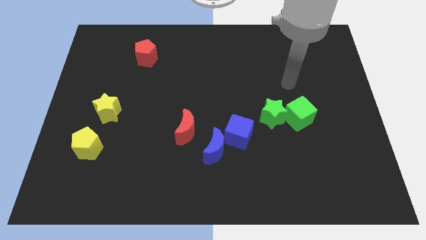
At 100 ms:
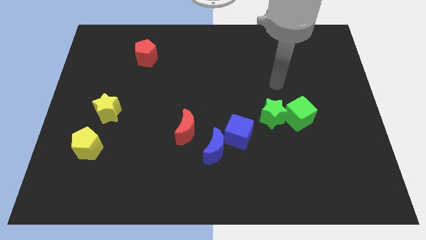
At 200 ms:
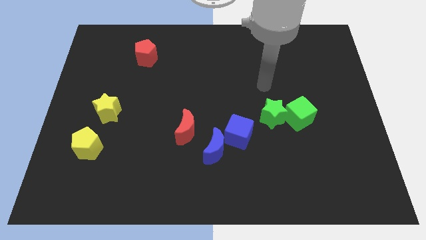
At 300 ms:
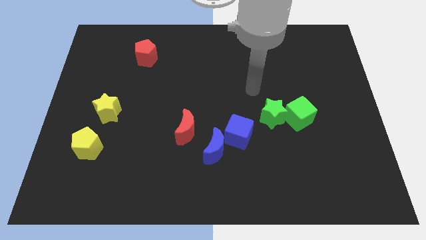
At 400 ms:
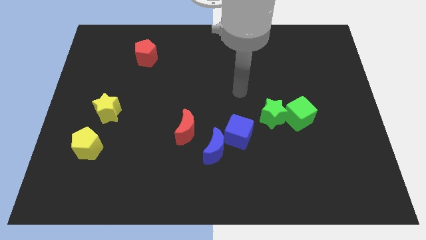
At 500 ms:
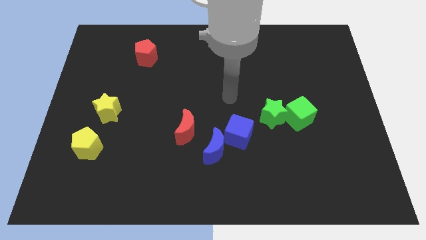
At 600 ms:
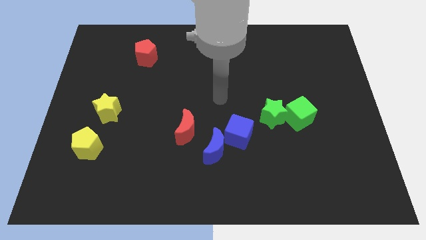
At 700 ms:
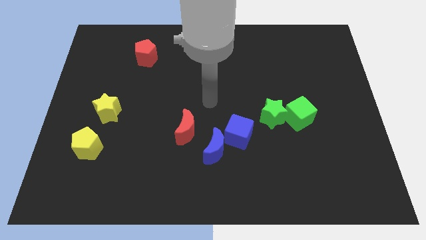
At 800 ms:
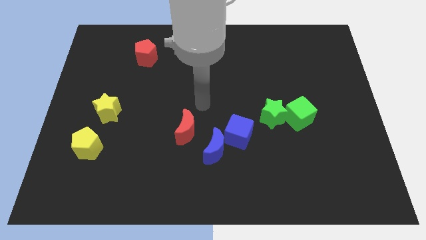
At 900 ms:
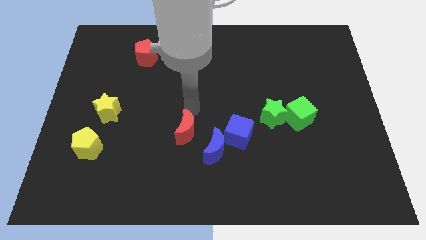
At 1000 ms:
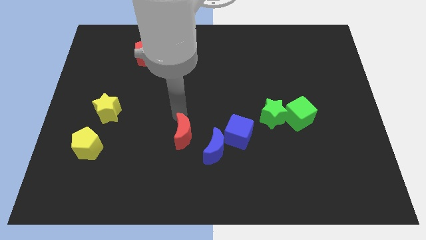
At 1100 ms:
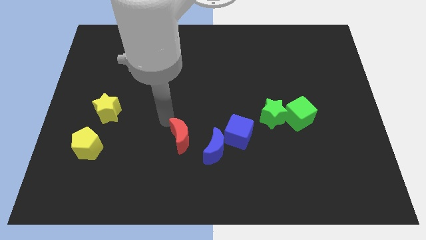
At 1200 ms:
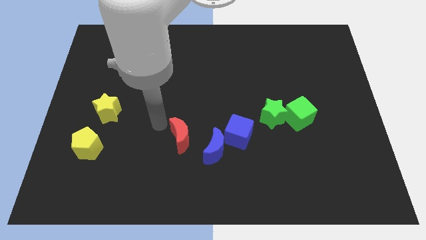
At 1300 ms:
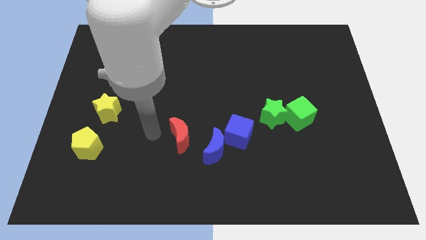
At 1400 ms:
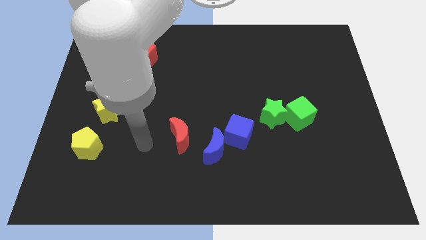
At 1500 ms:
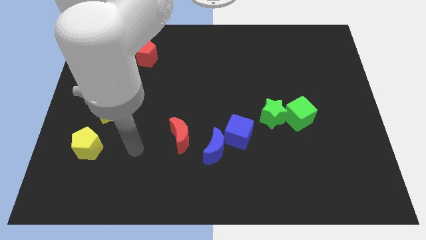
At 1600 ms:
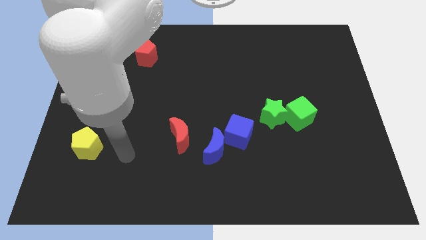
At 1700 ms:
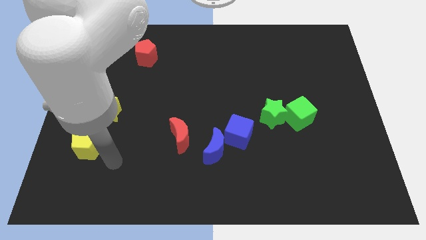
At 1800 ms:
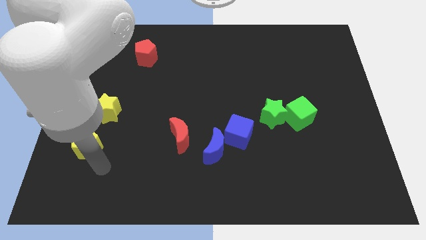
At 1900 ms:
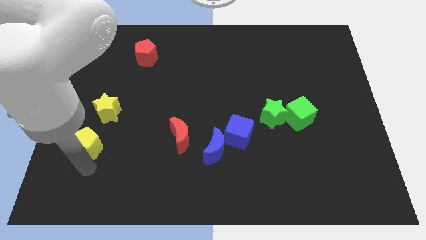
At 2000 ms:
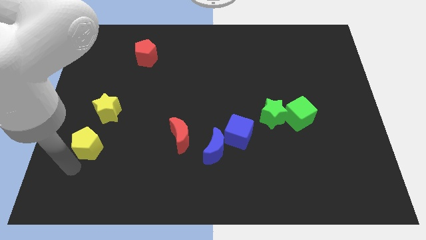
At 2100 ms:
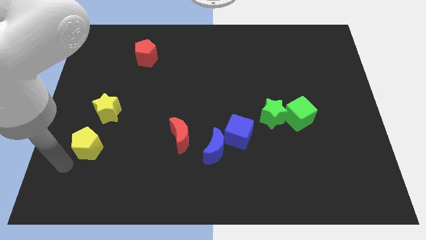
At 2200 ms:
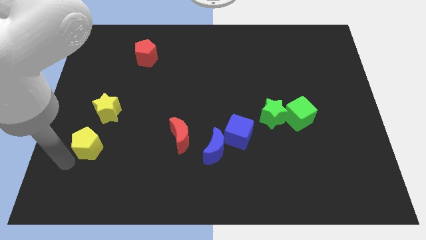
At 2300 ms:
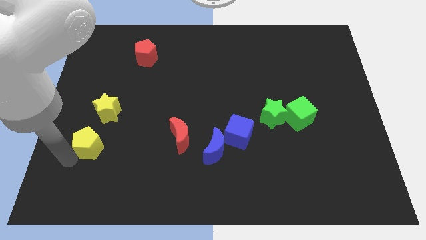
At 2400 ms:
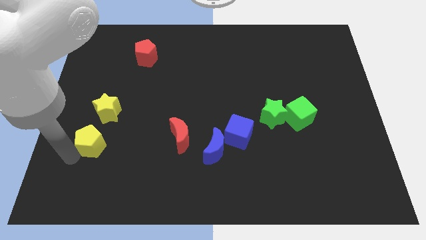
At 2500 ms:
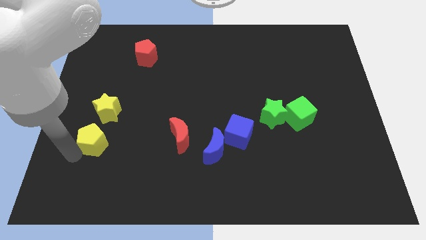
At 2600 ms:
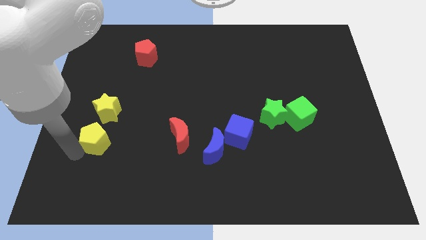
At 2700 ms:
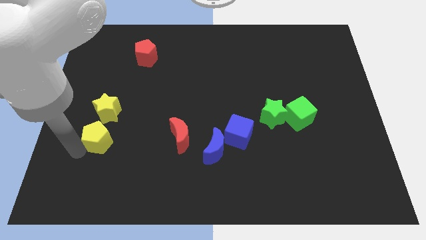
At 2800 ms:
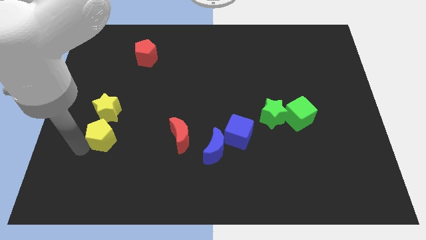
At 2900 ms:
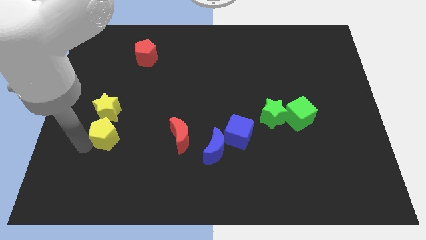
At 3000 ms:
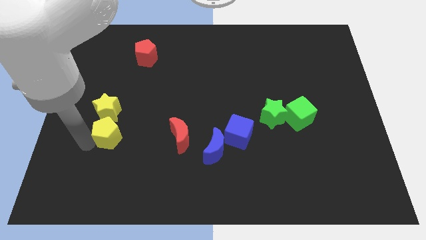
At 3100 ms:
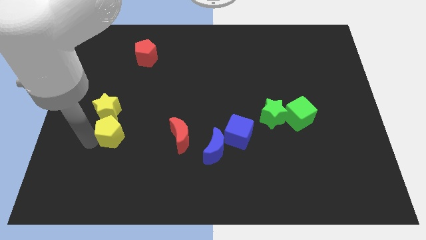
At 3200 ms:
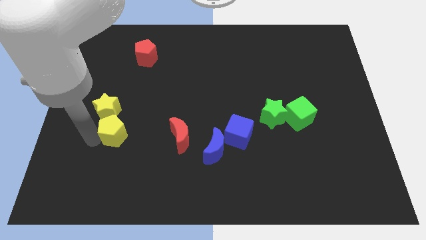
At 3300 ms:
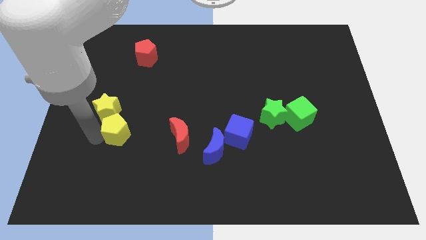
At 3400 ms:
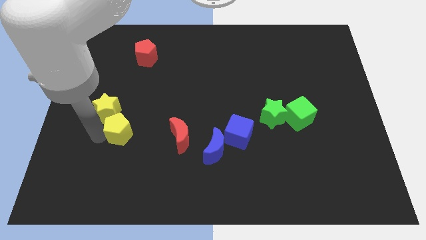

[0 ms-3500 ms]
slightly move the yellow pentagon up and then right

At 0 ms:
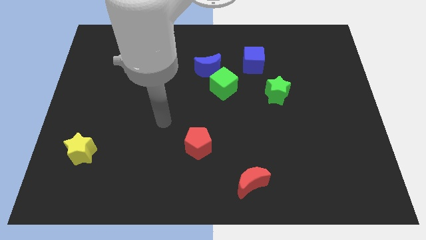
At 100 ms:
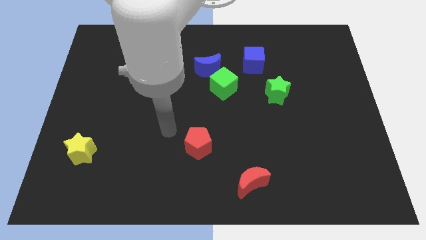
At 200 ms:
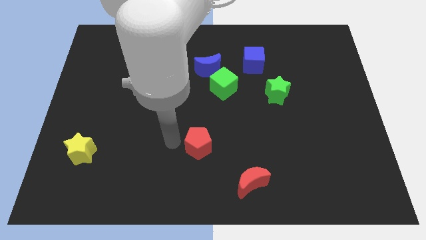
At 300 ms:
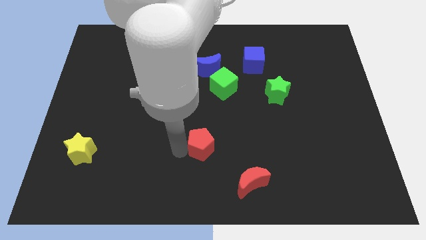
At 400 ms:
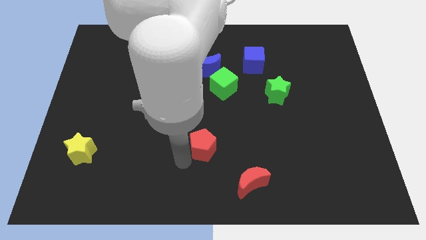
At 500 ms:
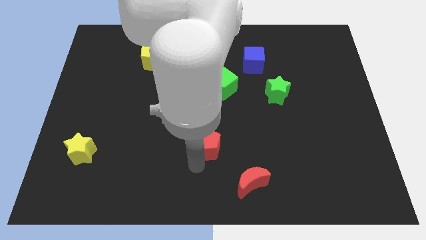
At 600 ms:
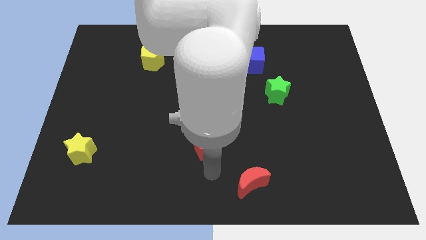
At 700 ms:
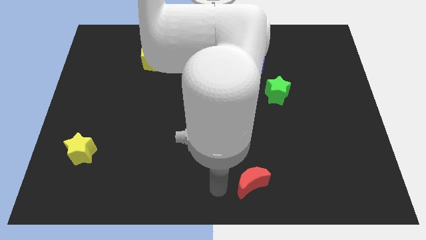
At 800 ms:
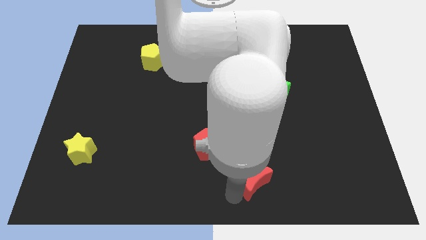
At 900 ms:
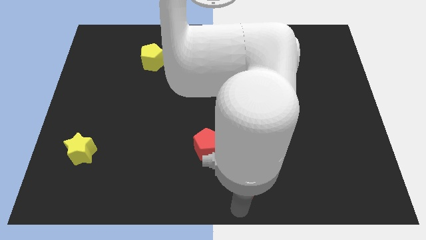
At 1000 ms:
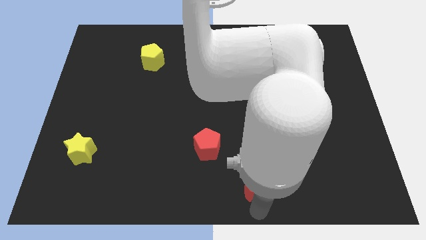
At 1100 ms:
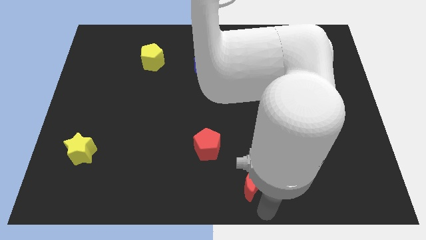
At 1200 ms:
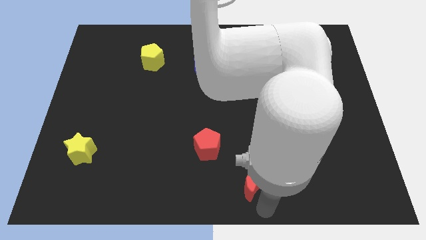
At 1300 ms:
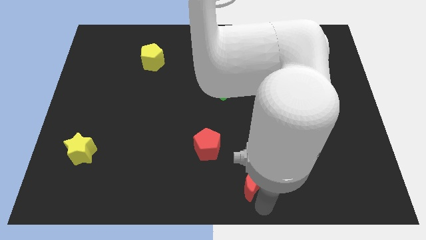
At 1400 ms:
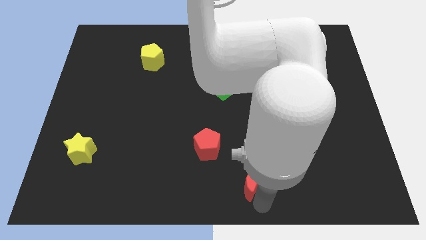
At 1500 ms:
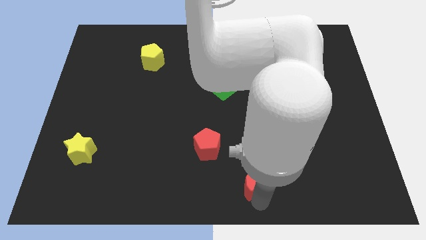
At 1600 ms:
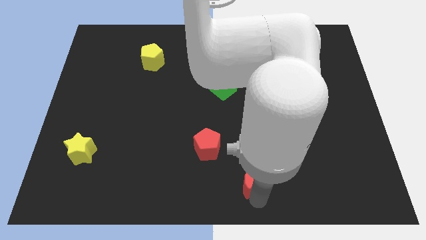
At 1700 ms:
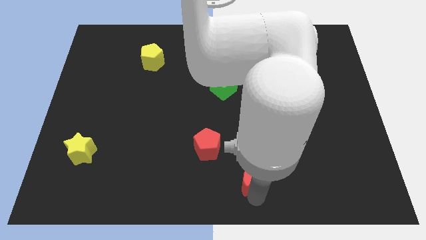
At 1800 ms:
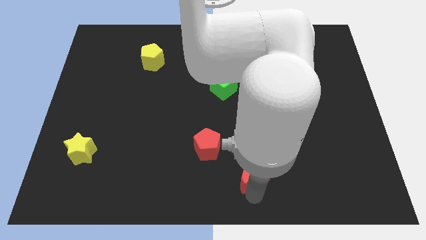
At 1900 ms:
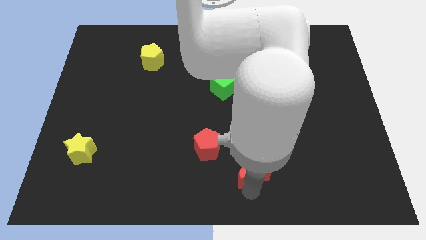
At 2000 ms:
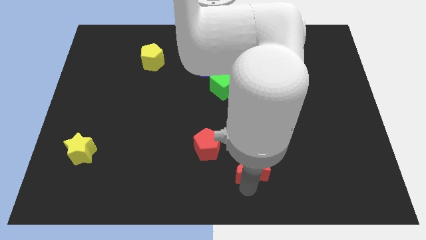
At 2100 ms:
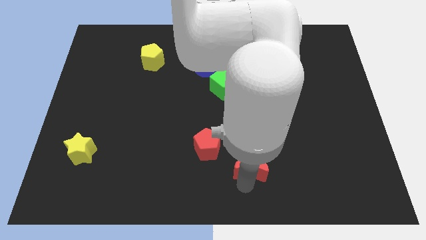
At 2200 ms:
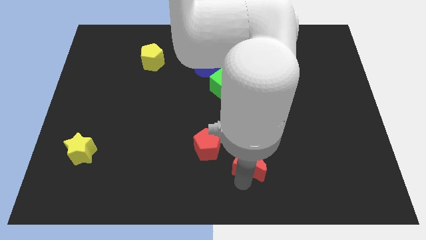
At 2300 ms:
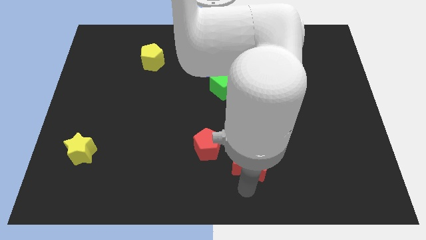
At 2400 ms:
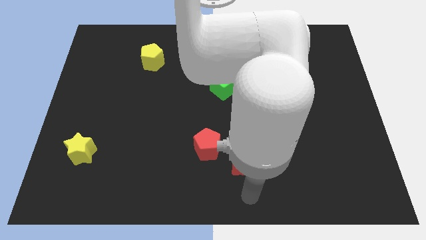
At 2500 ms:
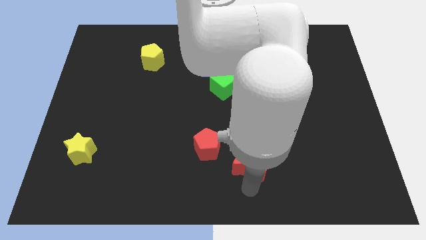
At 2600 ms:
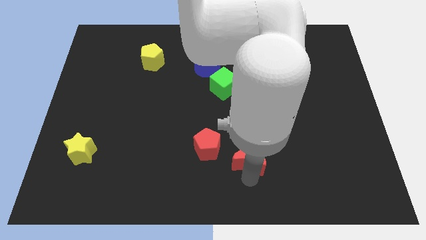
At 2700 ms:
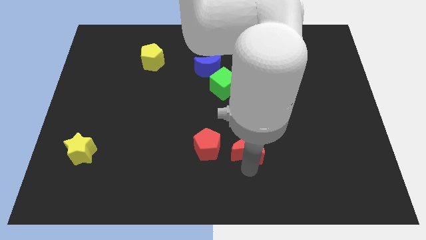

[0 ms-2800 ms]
slide the red moon upwards slightly

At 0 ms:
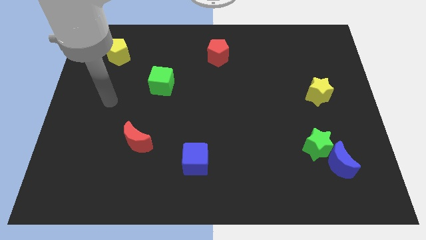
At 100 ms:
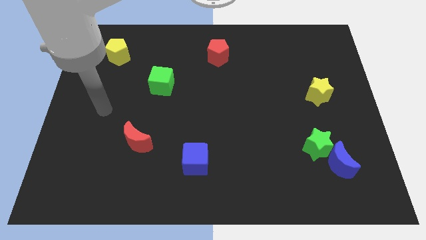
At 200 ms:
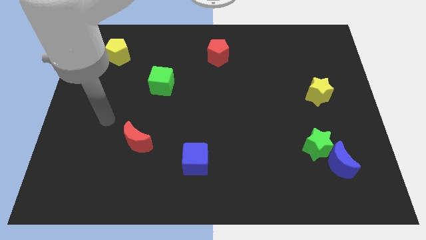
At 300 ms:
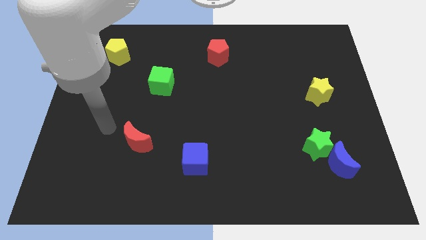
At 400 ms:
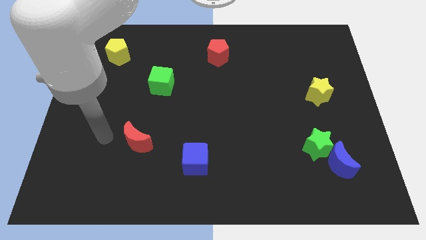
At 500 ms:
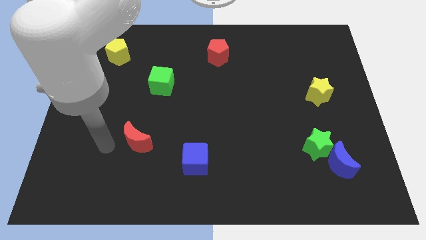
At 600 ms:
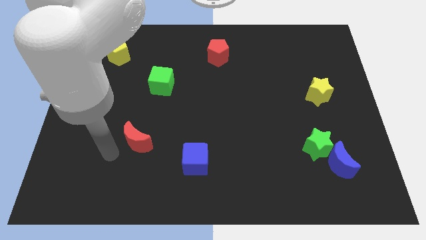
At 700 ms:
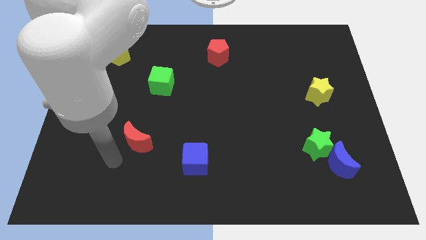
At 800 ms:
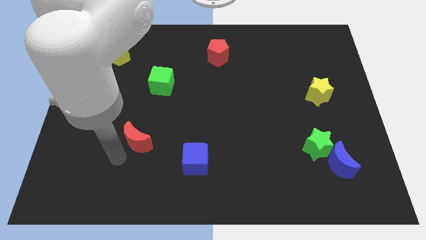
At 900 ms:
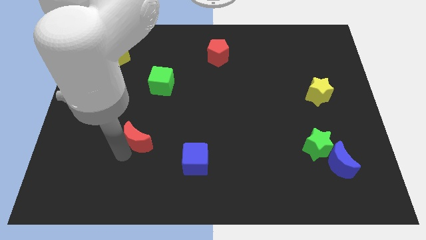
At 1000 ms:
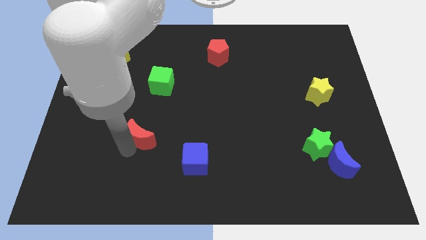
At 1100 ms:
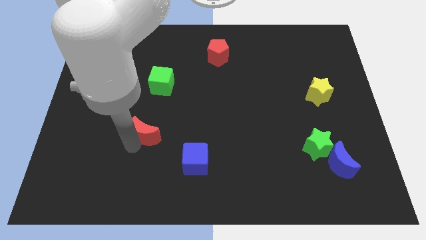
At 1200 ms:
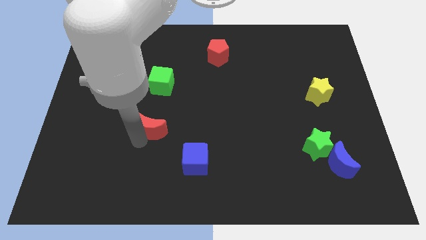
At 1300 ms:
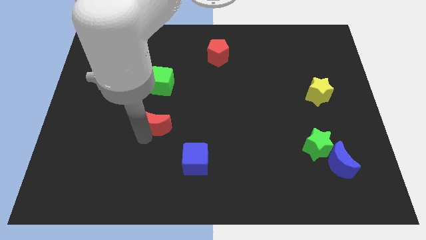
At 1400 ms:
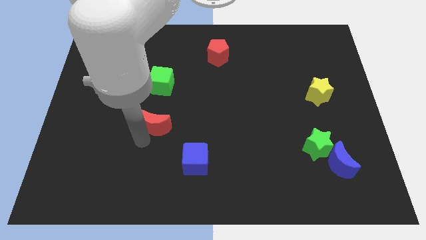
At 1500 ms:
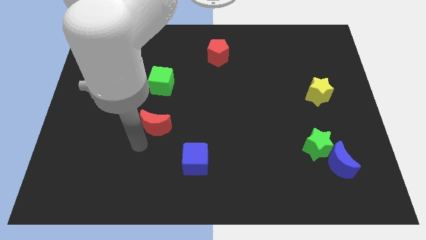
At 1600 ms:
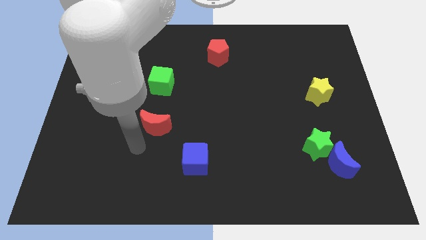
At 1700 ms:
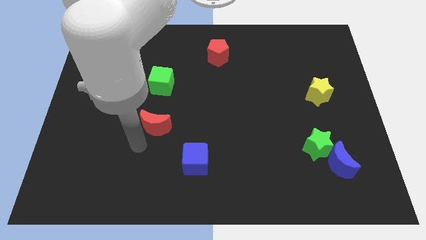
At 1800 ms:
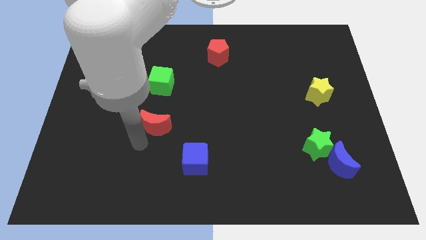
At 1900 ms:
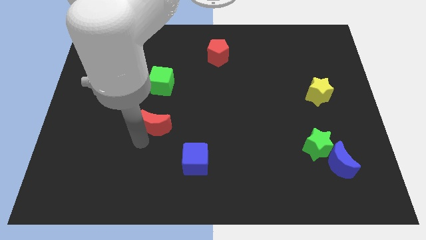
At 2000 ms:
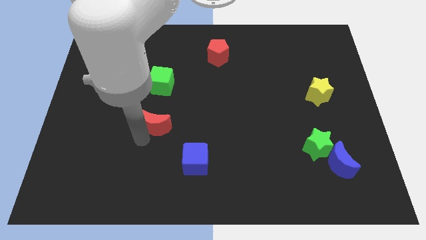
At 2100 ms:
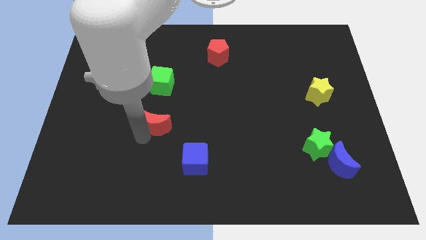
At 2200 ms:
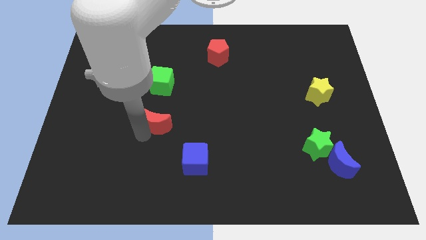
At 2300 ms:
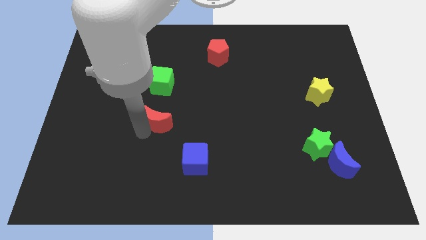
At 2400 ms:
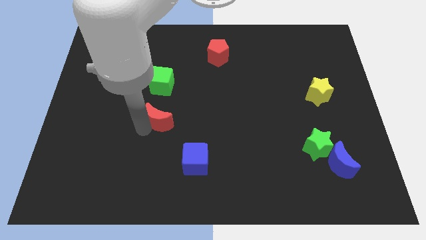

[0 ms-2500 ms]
move the red moon diagonally upwards and right a little
